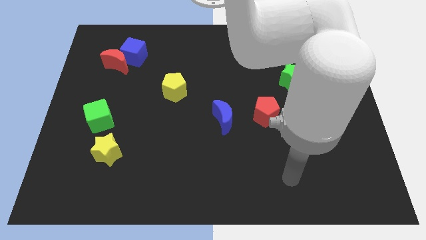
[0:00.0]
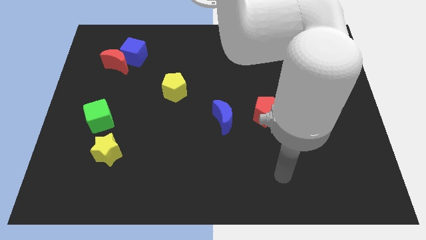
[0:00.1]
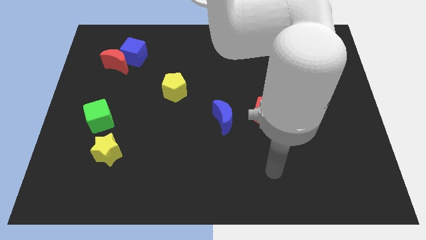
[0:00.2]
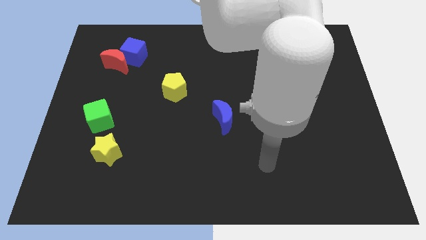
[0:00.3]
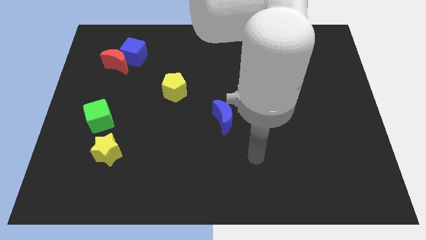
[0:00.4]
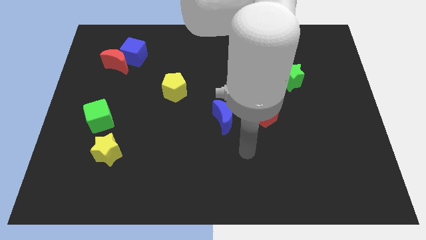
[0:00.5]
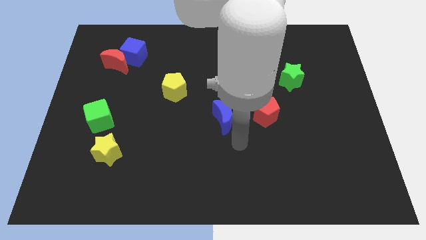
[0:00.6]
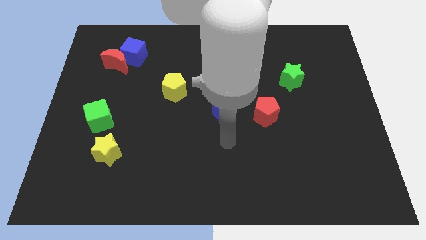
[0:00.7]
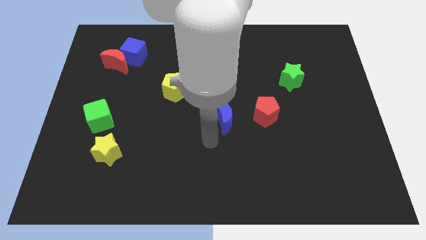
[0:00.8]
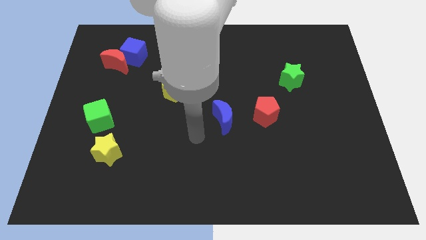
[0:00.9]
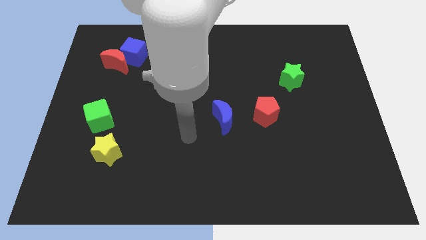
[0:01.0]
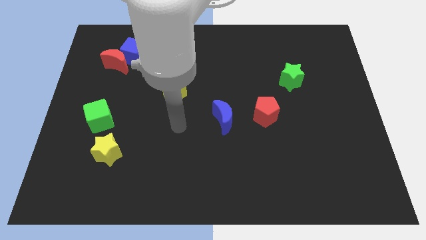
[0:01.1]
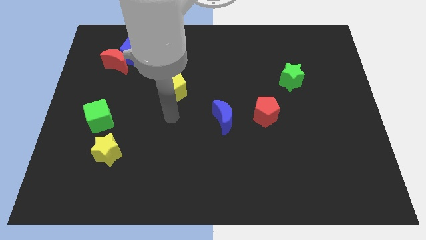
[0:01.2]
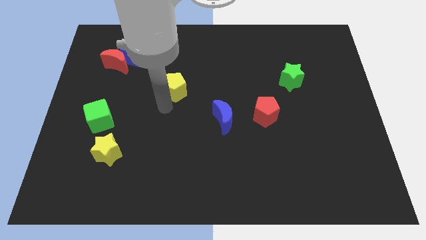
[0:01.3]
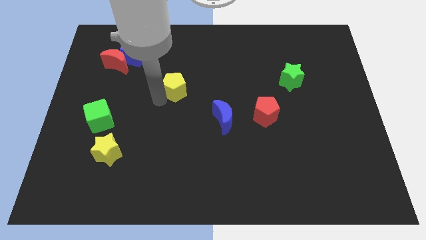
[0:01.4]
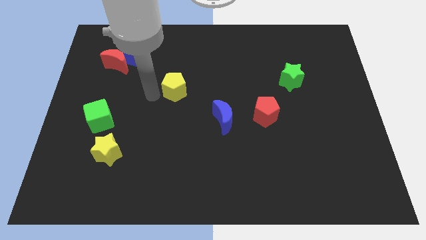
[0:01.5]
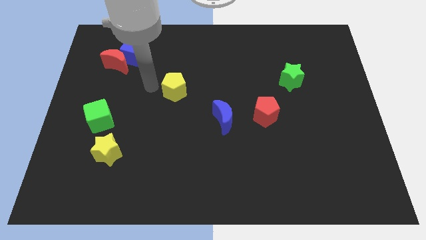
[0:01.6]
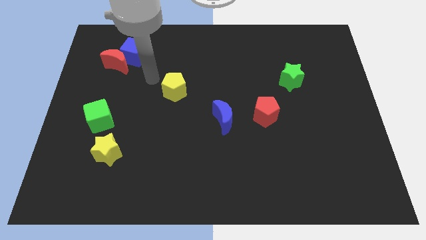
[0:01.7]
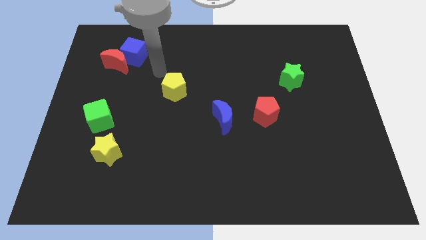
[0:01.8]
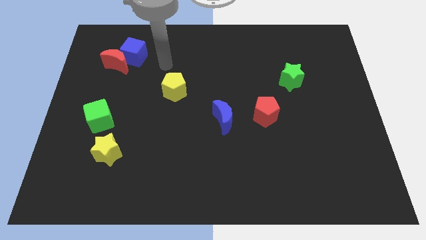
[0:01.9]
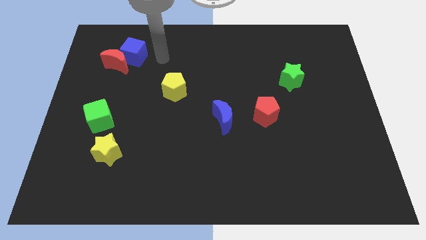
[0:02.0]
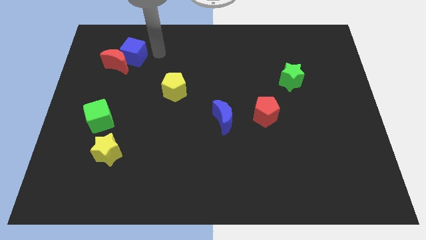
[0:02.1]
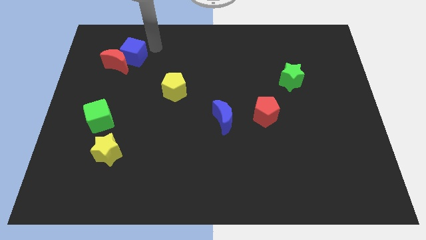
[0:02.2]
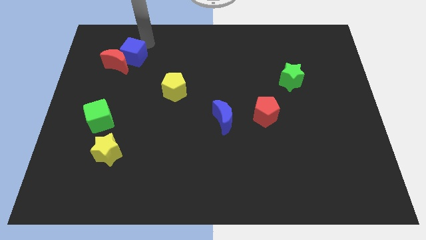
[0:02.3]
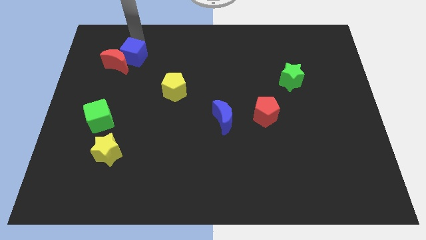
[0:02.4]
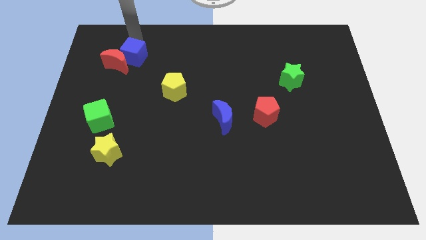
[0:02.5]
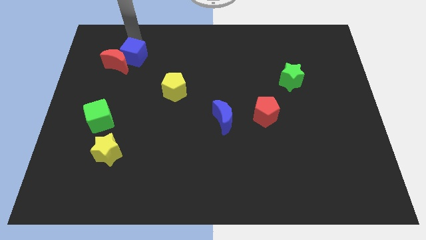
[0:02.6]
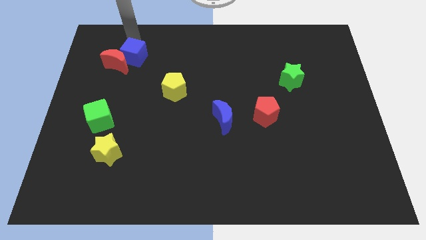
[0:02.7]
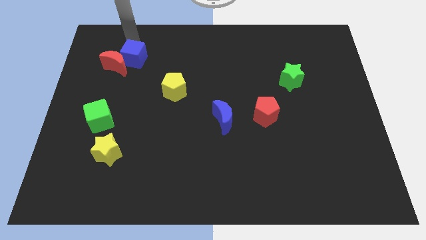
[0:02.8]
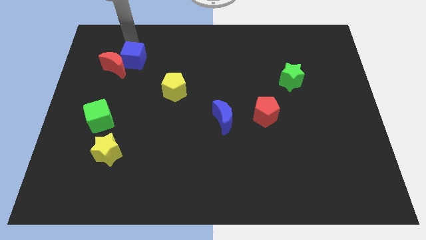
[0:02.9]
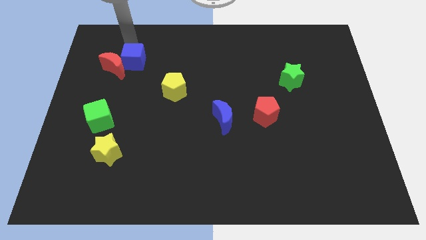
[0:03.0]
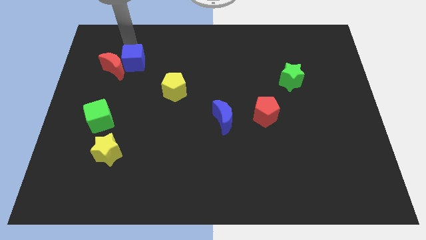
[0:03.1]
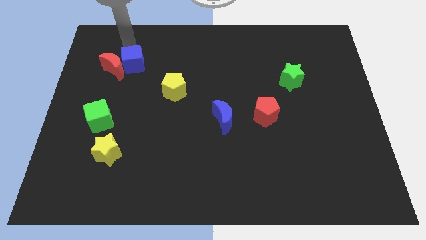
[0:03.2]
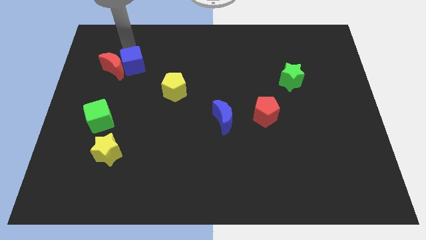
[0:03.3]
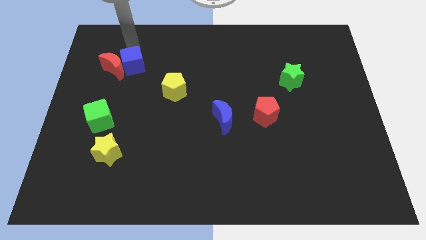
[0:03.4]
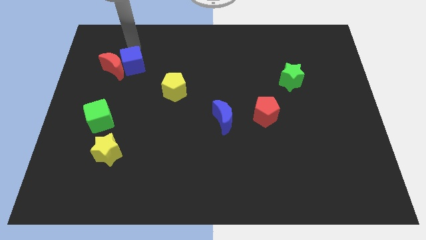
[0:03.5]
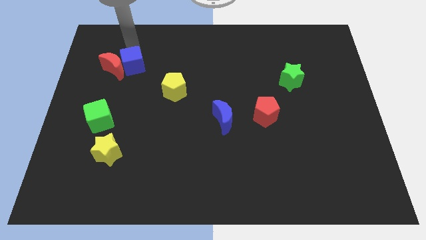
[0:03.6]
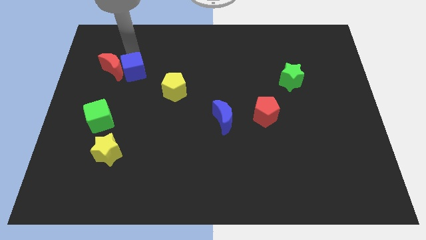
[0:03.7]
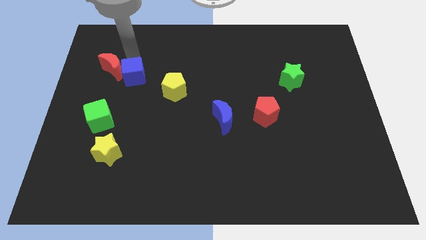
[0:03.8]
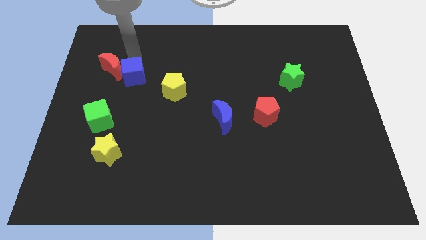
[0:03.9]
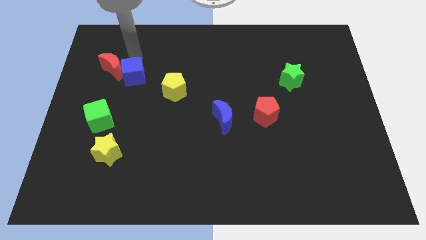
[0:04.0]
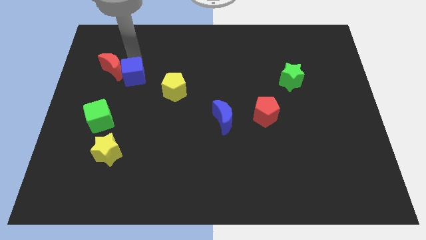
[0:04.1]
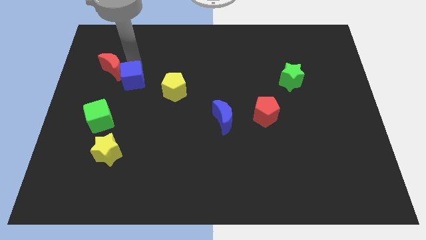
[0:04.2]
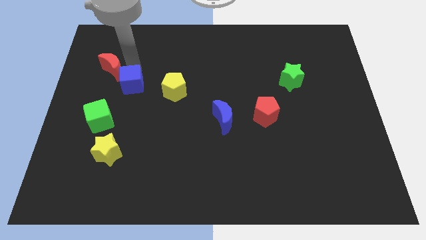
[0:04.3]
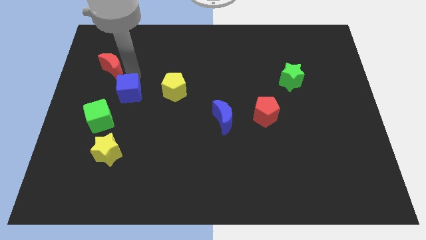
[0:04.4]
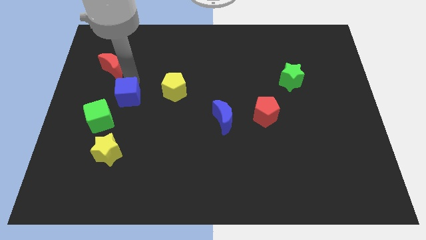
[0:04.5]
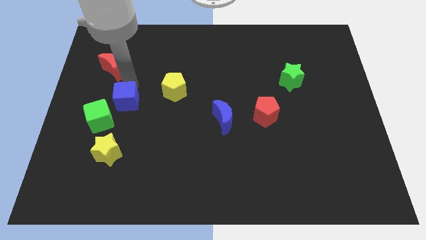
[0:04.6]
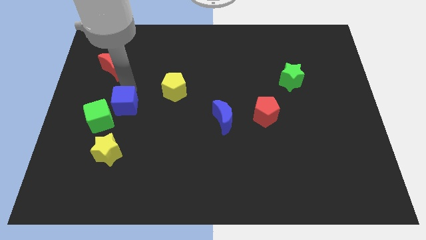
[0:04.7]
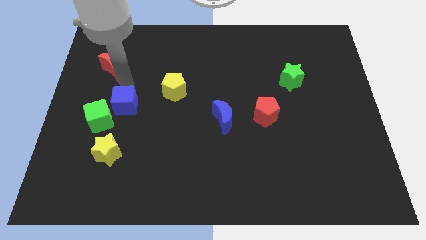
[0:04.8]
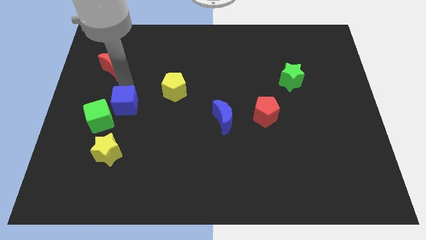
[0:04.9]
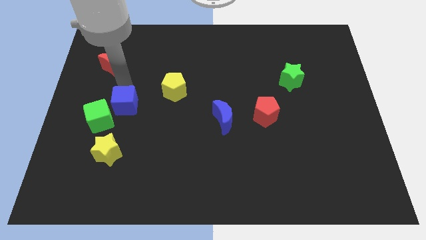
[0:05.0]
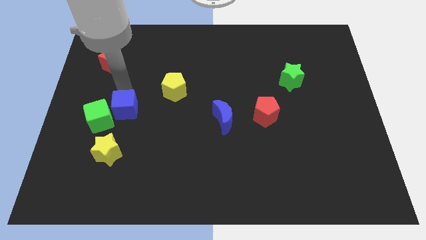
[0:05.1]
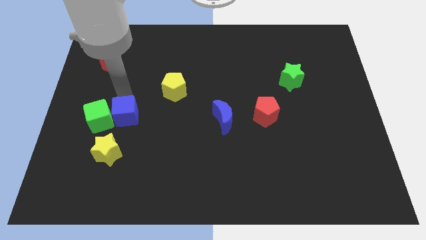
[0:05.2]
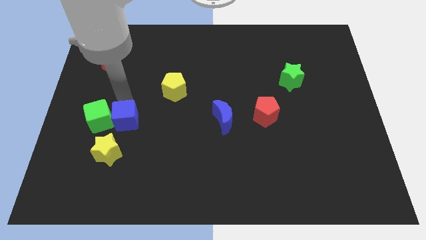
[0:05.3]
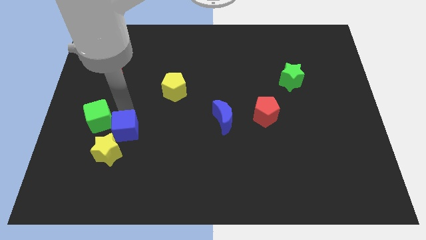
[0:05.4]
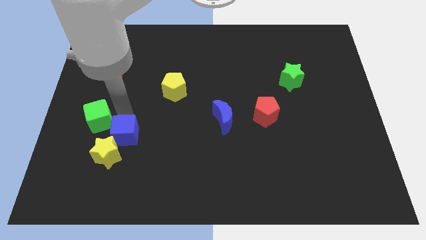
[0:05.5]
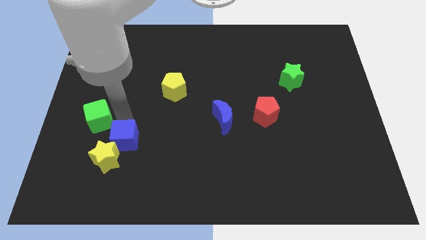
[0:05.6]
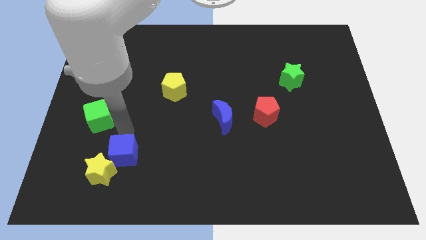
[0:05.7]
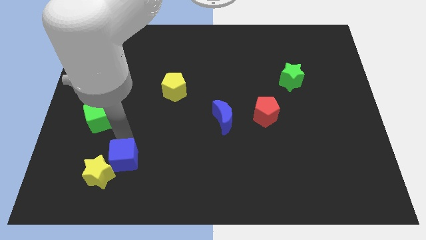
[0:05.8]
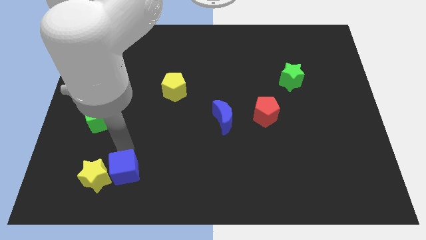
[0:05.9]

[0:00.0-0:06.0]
slide the blue cube to the bottom right of the yellow star

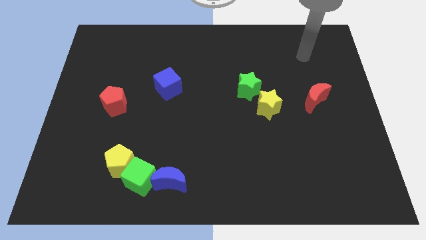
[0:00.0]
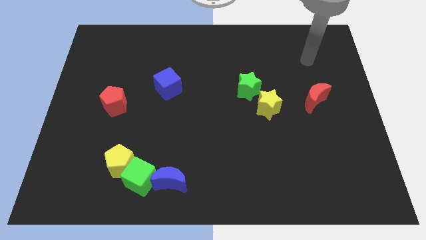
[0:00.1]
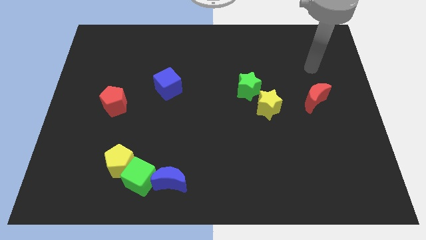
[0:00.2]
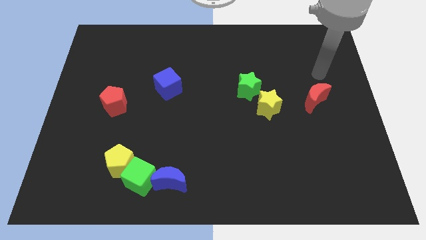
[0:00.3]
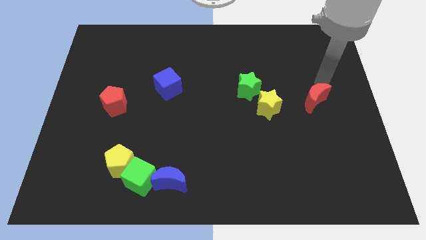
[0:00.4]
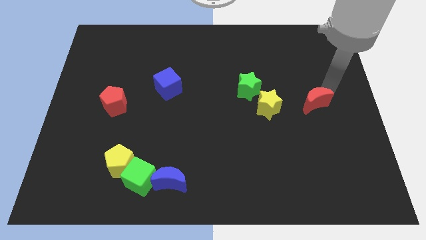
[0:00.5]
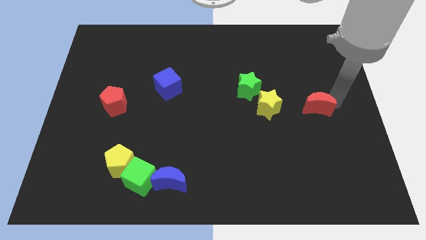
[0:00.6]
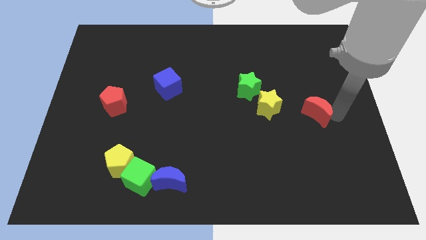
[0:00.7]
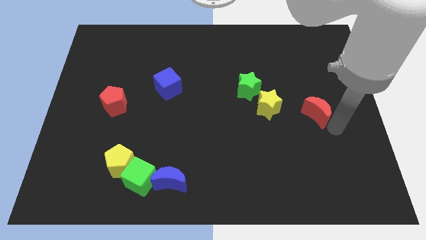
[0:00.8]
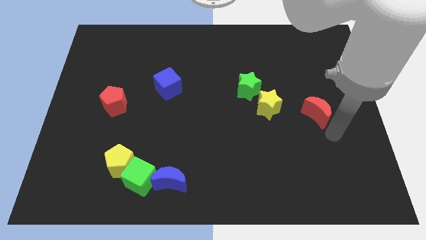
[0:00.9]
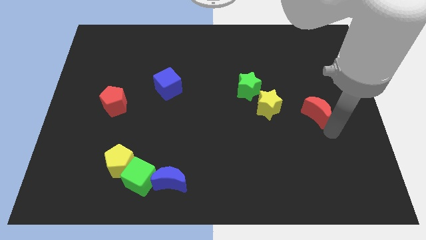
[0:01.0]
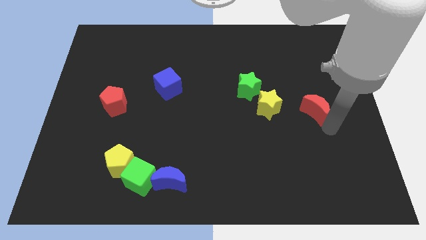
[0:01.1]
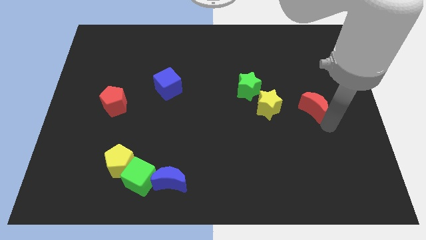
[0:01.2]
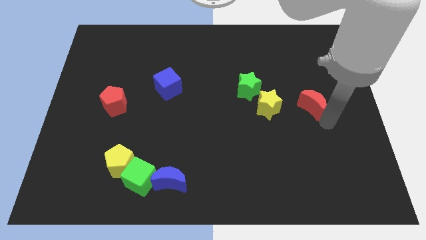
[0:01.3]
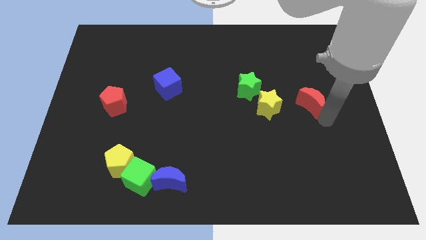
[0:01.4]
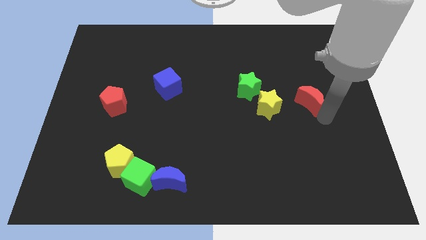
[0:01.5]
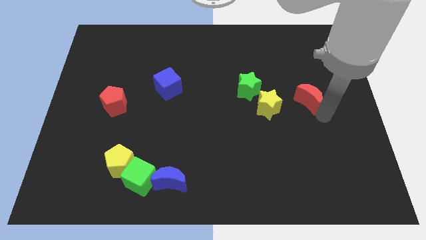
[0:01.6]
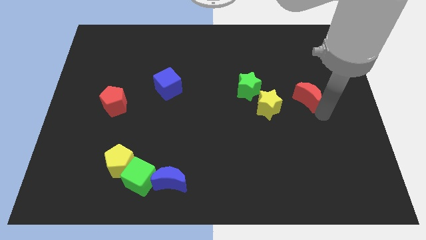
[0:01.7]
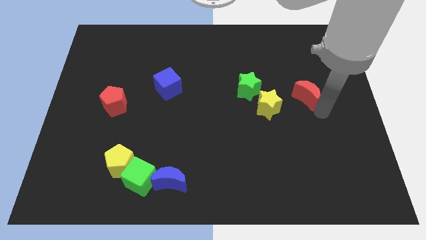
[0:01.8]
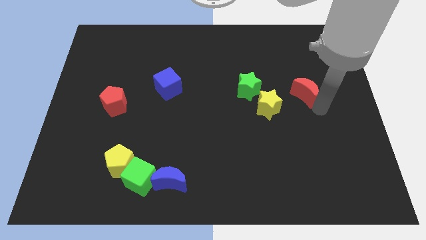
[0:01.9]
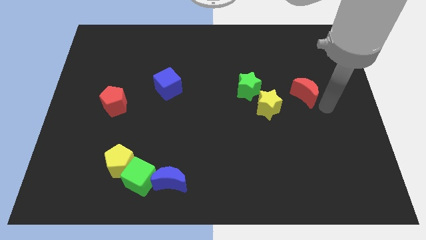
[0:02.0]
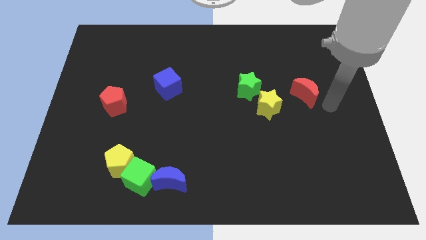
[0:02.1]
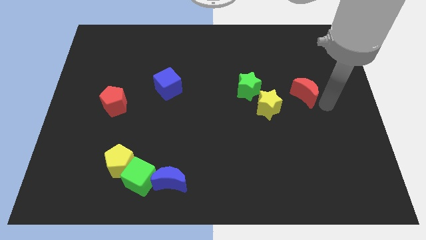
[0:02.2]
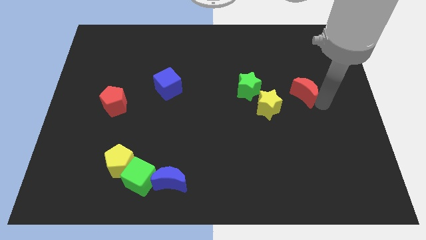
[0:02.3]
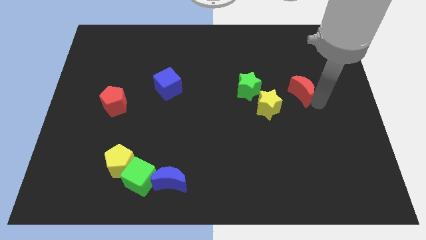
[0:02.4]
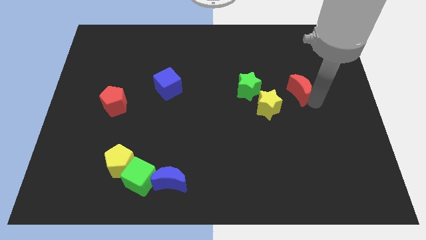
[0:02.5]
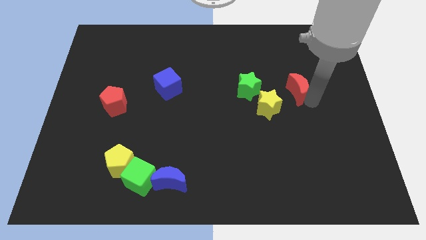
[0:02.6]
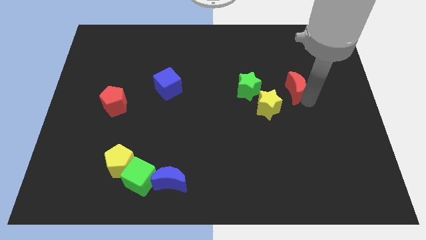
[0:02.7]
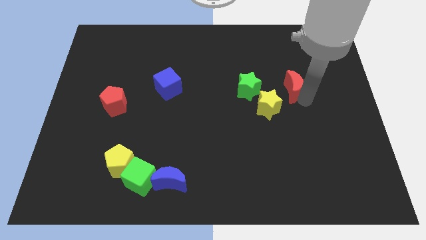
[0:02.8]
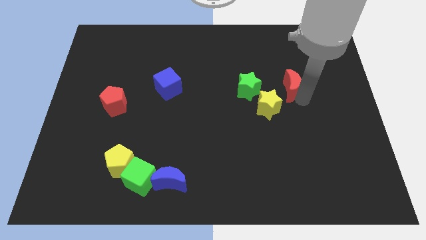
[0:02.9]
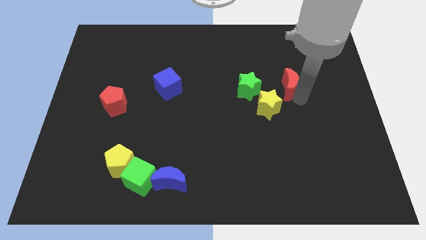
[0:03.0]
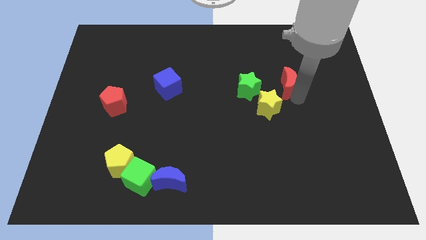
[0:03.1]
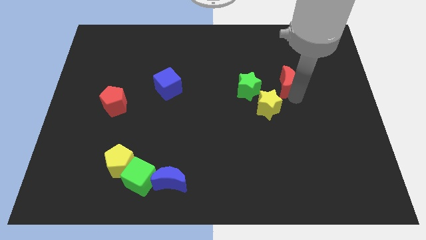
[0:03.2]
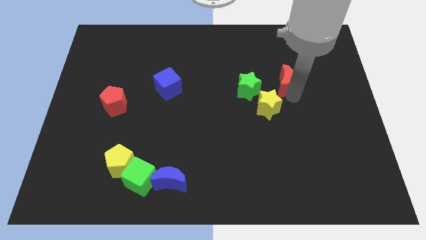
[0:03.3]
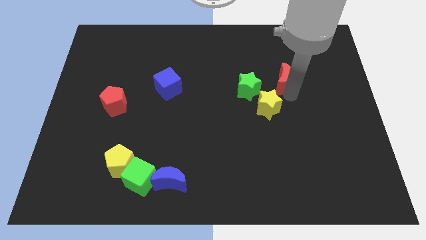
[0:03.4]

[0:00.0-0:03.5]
slide the red moon to the top of the yellow star
